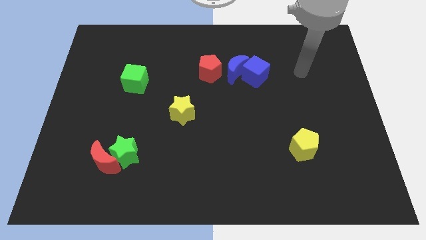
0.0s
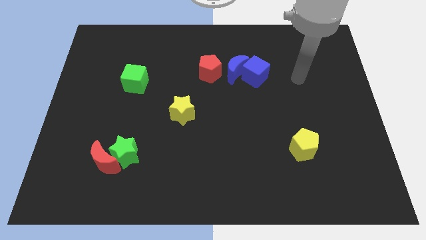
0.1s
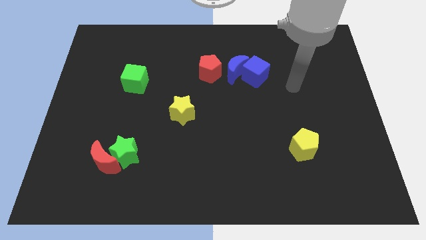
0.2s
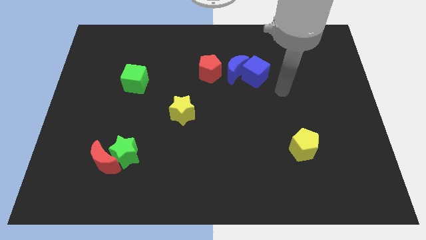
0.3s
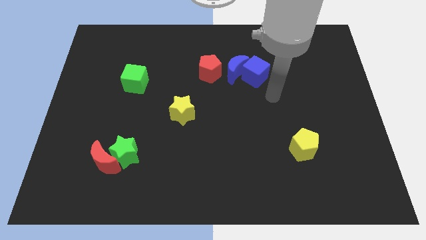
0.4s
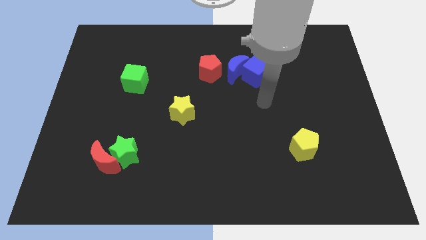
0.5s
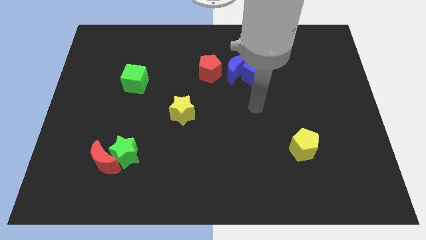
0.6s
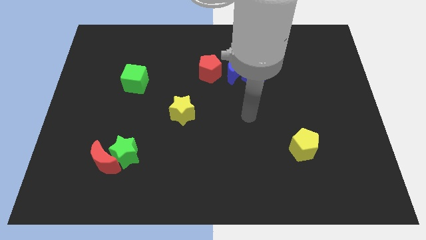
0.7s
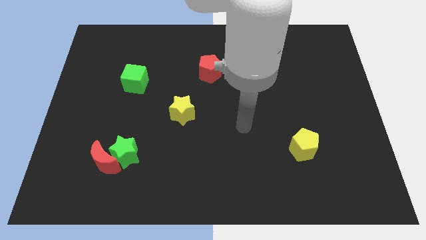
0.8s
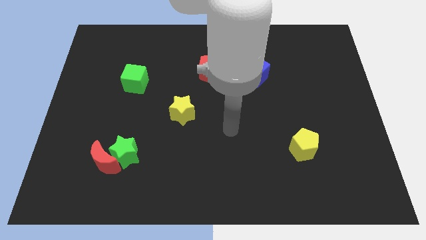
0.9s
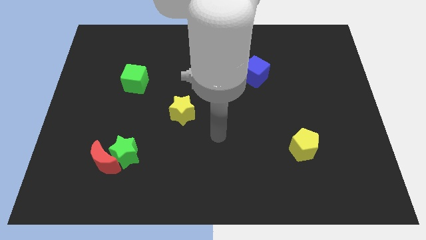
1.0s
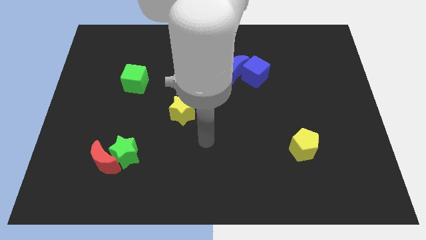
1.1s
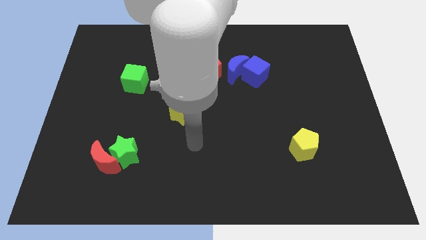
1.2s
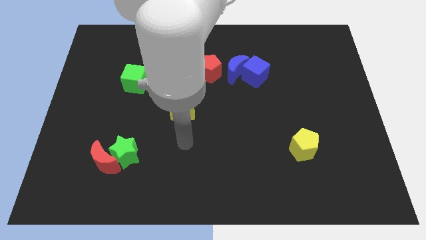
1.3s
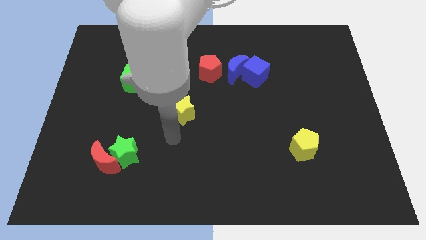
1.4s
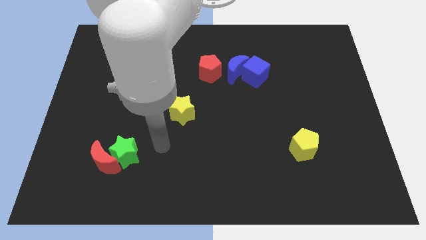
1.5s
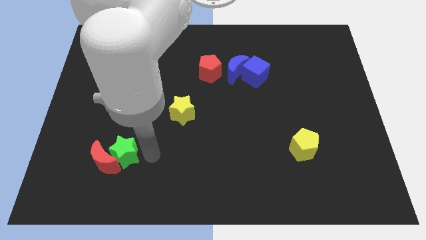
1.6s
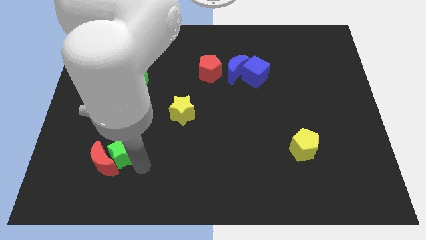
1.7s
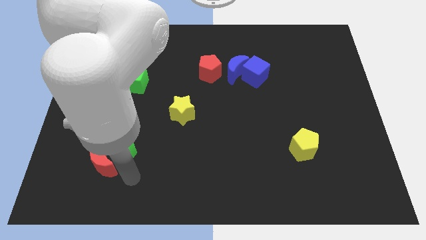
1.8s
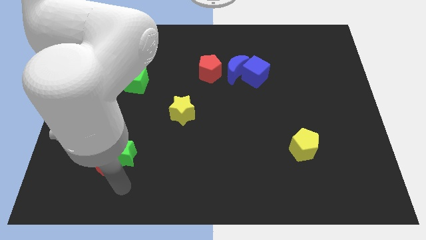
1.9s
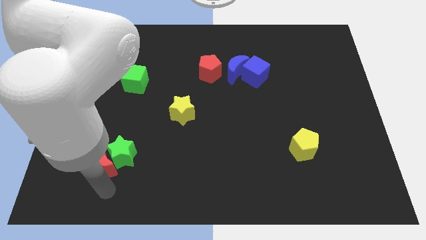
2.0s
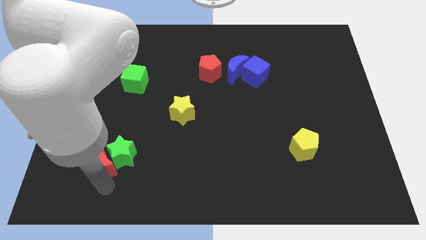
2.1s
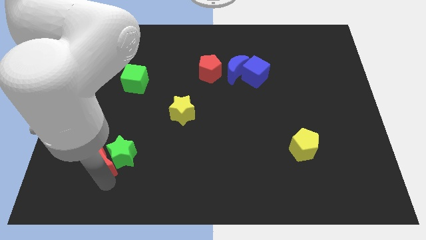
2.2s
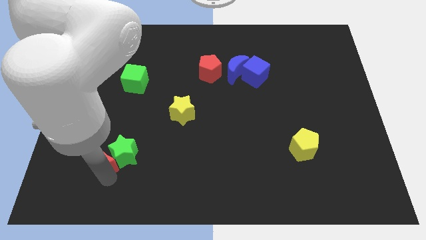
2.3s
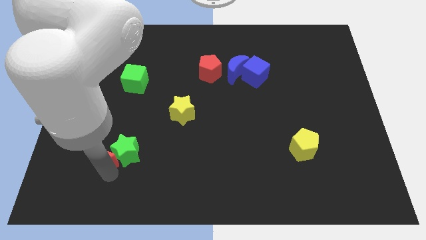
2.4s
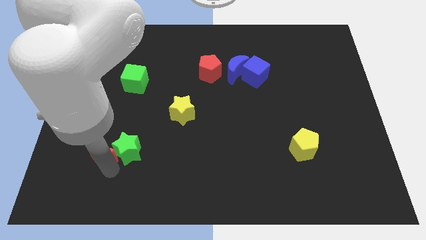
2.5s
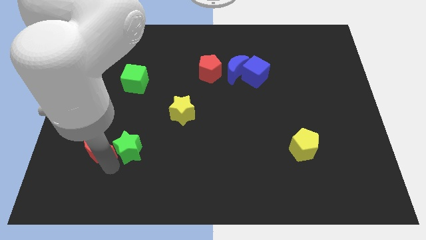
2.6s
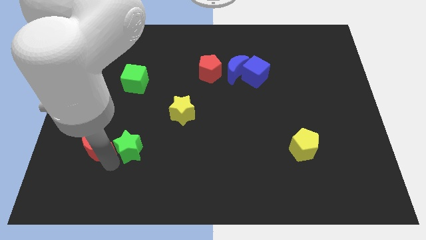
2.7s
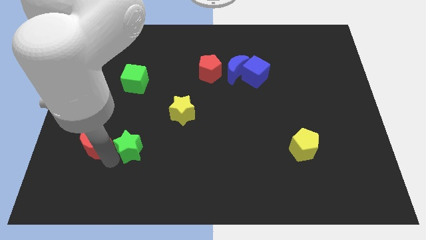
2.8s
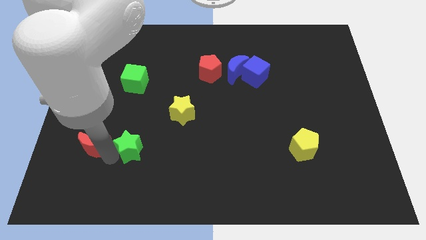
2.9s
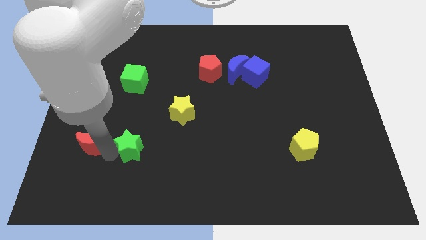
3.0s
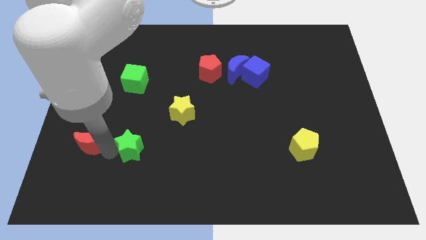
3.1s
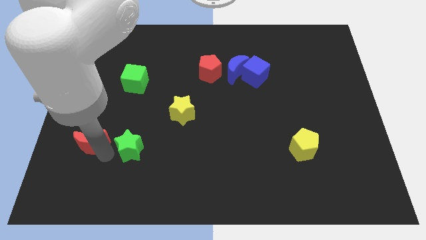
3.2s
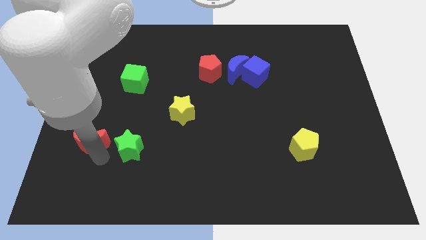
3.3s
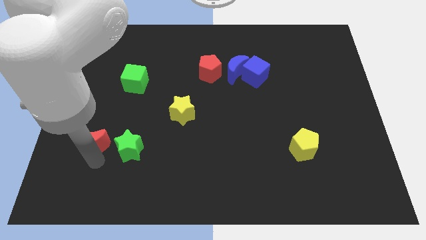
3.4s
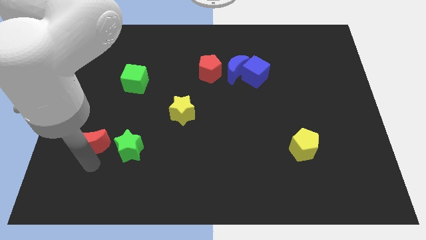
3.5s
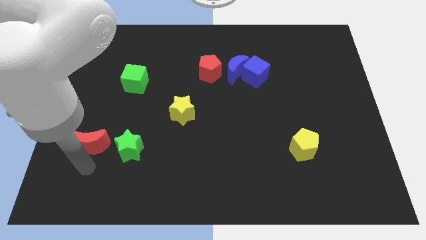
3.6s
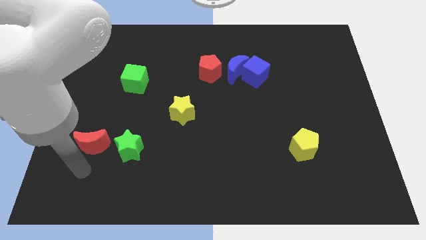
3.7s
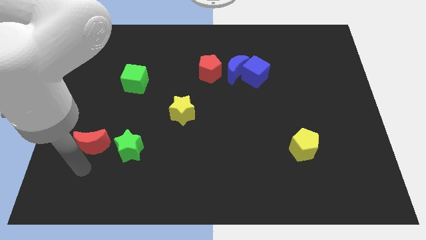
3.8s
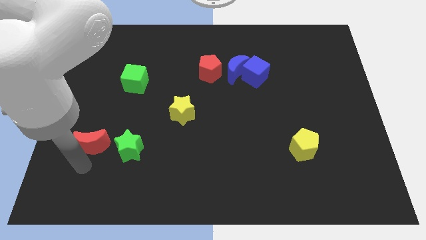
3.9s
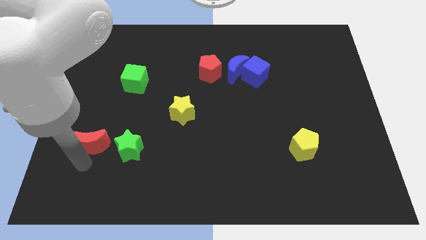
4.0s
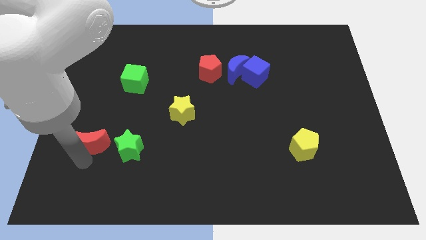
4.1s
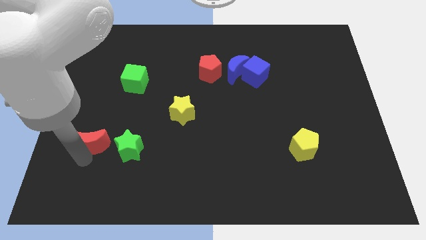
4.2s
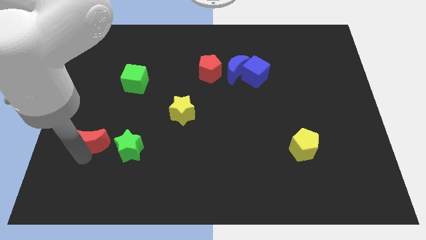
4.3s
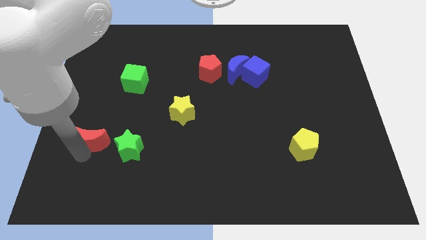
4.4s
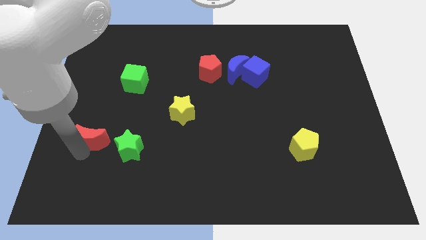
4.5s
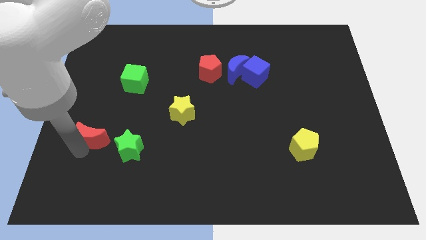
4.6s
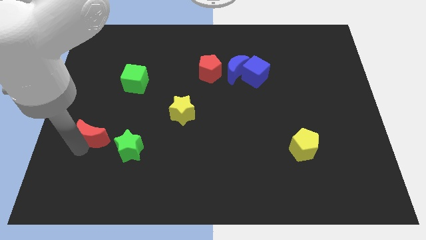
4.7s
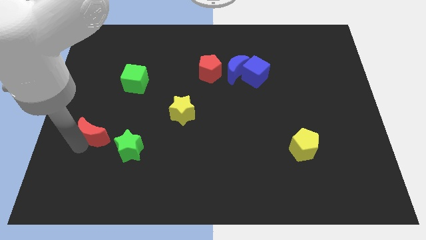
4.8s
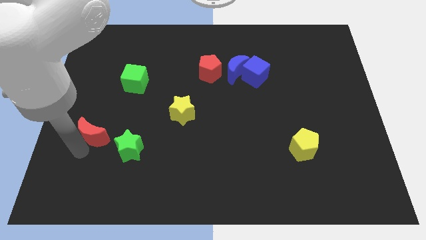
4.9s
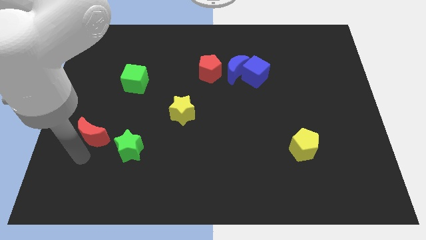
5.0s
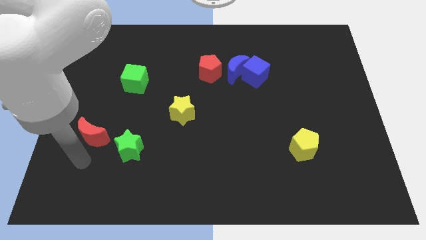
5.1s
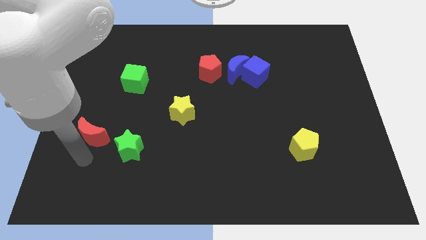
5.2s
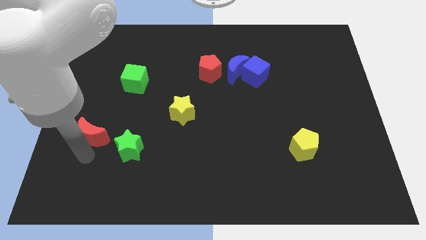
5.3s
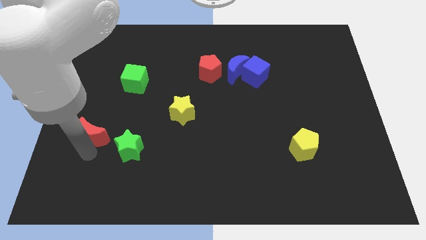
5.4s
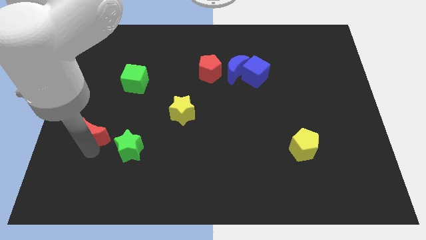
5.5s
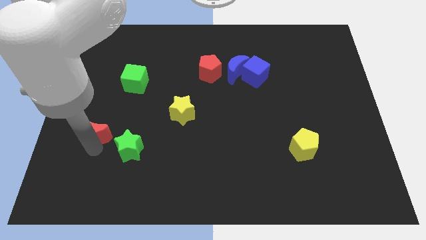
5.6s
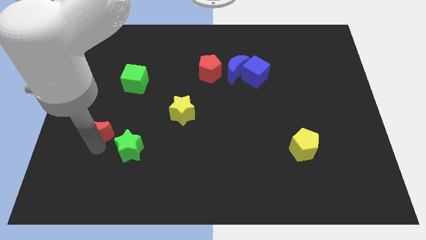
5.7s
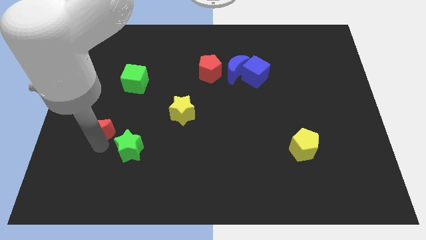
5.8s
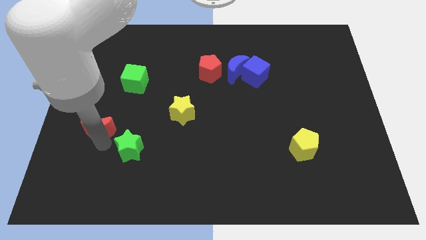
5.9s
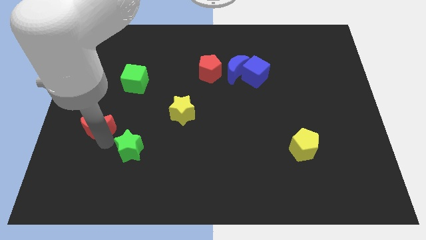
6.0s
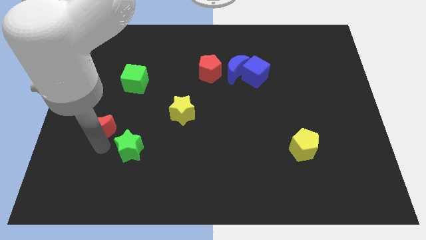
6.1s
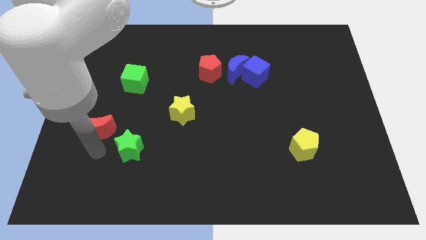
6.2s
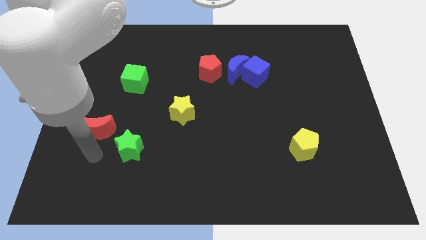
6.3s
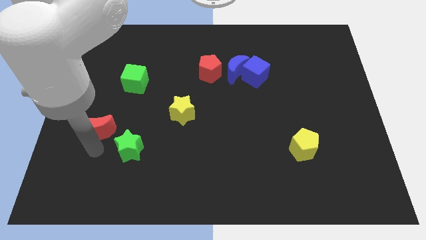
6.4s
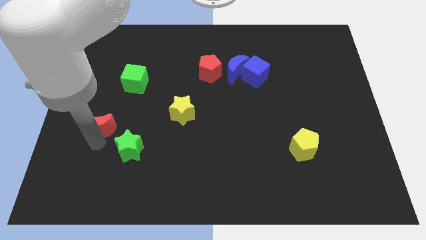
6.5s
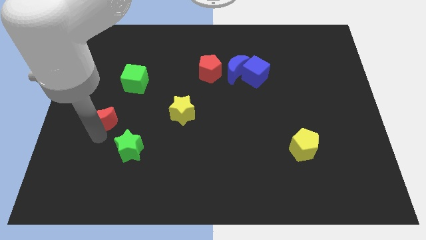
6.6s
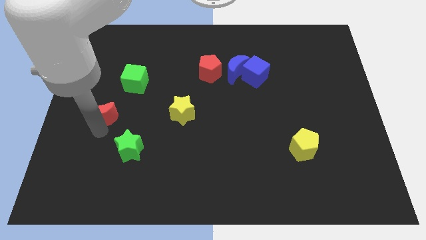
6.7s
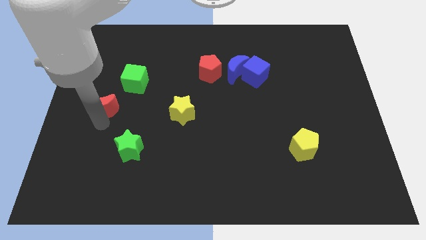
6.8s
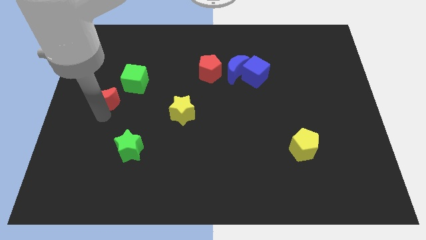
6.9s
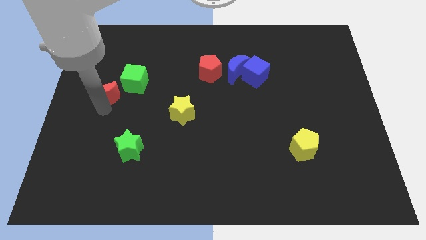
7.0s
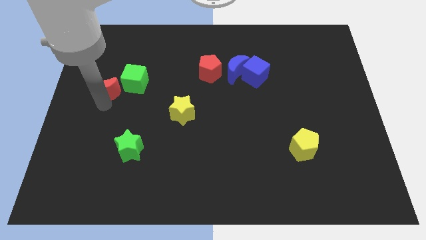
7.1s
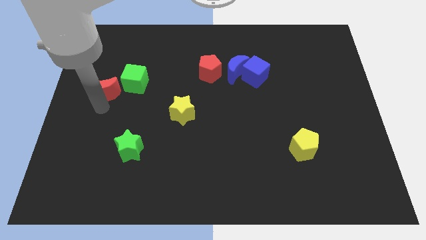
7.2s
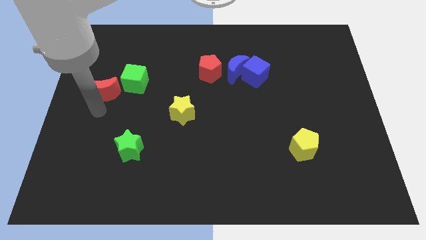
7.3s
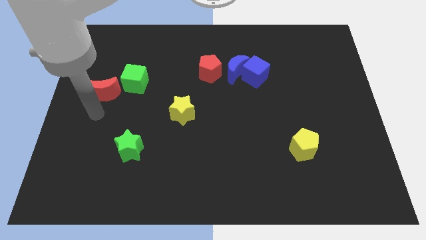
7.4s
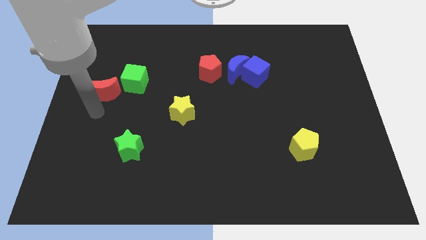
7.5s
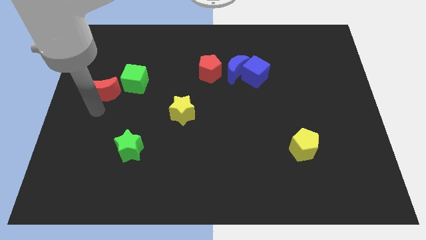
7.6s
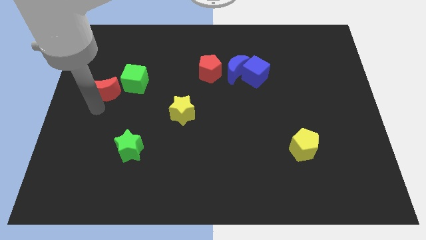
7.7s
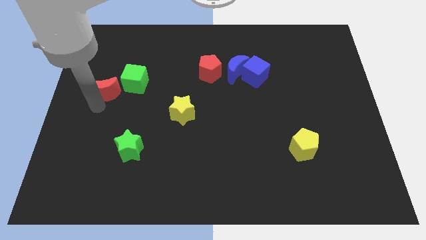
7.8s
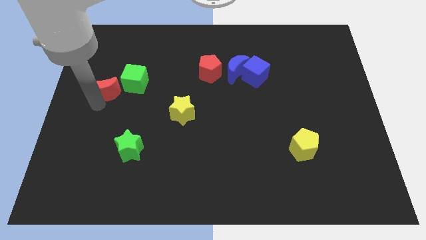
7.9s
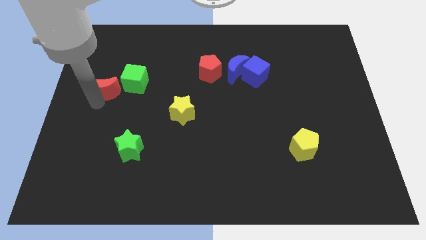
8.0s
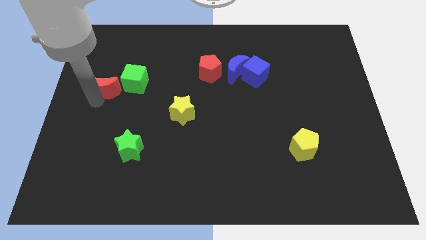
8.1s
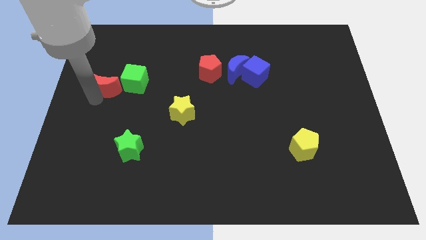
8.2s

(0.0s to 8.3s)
move the red moon upwards
